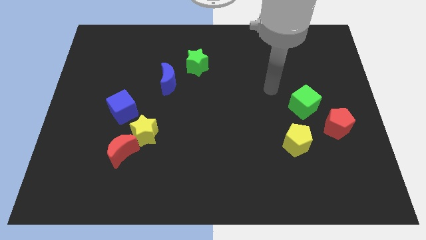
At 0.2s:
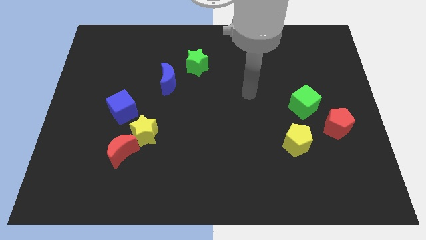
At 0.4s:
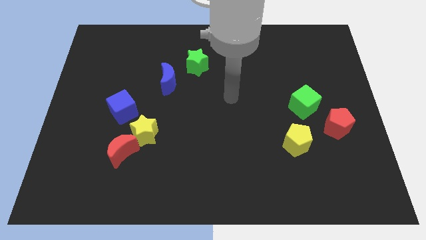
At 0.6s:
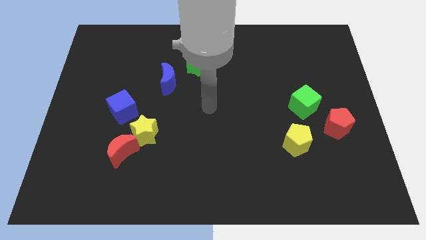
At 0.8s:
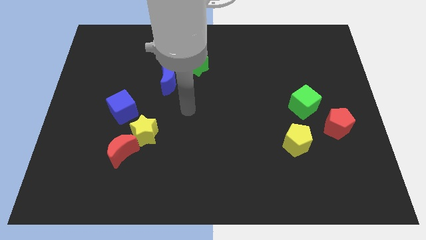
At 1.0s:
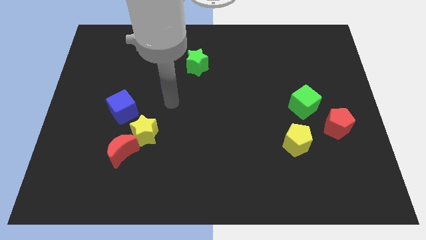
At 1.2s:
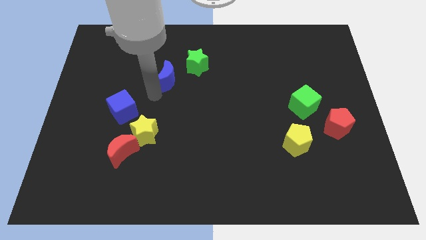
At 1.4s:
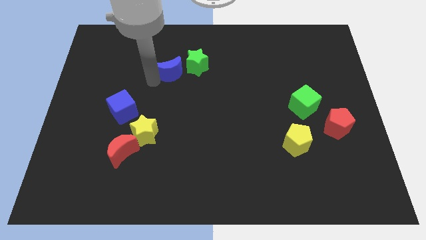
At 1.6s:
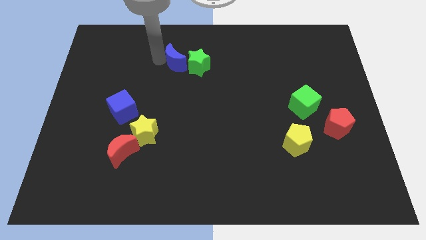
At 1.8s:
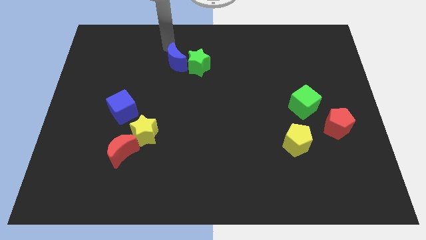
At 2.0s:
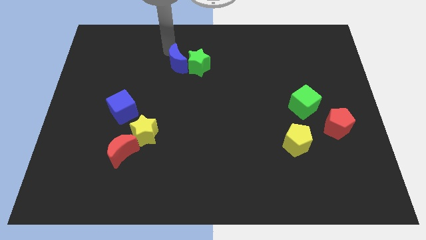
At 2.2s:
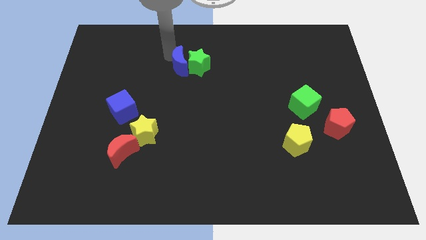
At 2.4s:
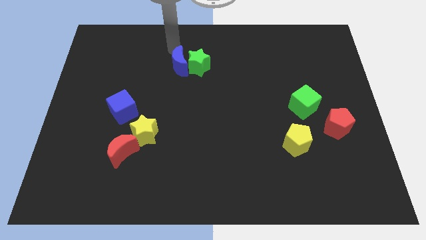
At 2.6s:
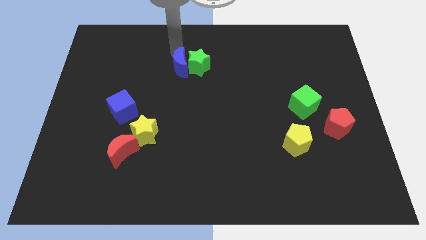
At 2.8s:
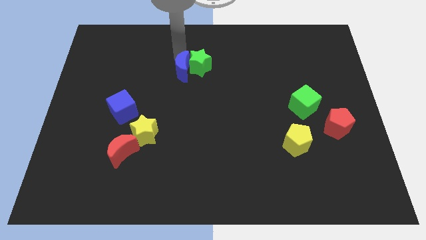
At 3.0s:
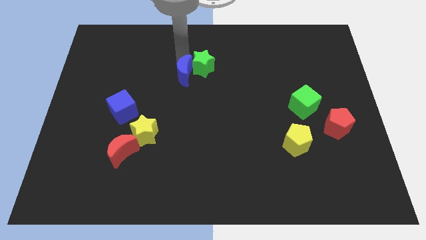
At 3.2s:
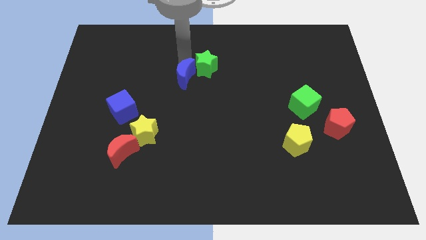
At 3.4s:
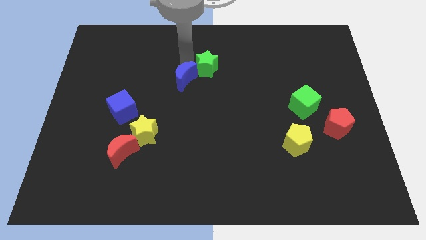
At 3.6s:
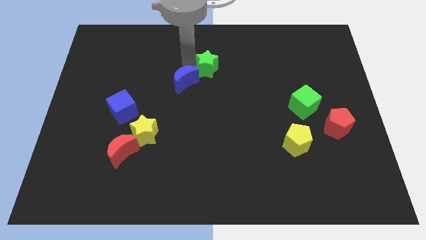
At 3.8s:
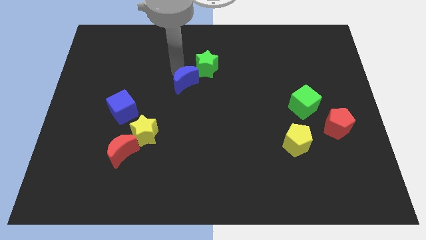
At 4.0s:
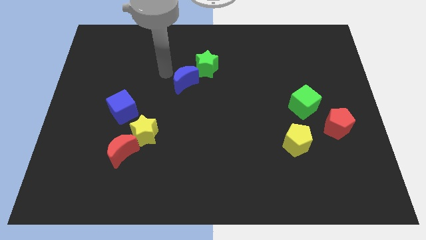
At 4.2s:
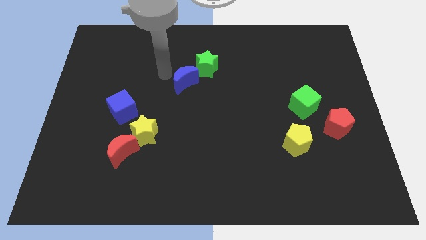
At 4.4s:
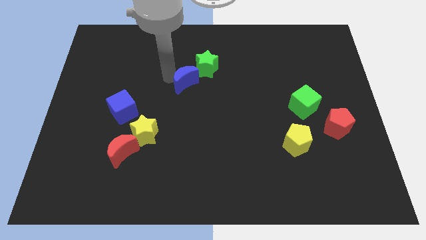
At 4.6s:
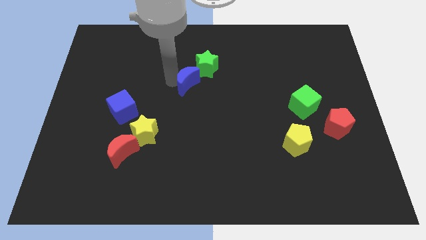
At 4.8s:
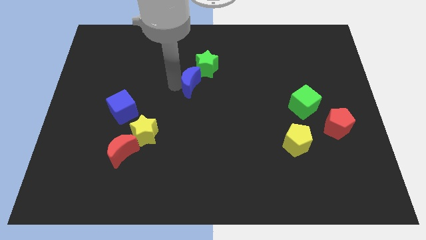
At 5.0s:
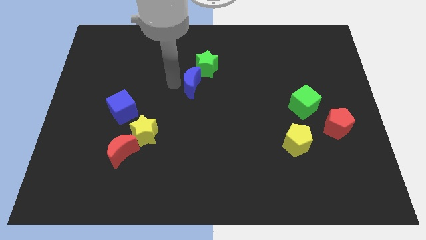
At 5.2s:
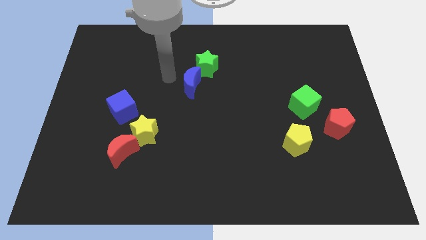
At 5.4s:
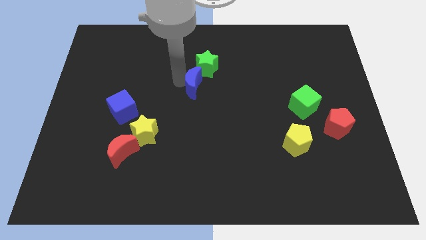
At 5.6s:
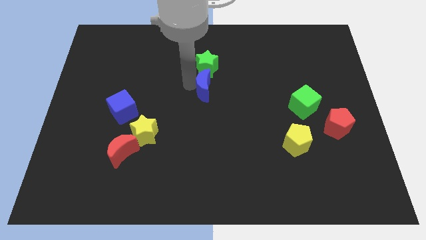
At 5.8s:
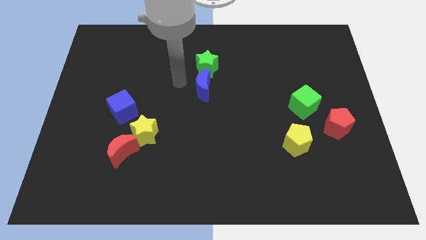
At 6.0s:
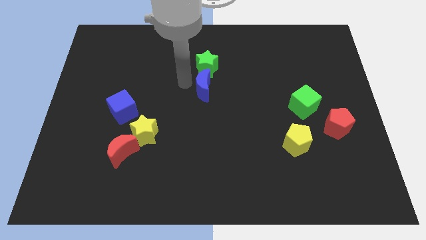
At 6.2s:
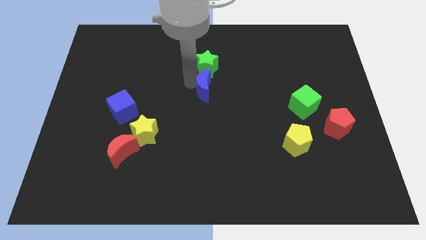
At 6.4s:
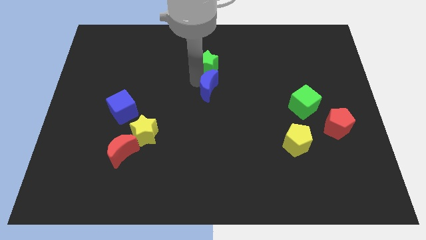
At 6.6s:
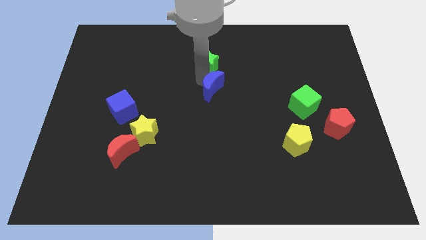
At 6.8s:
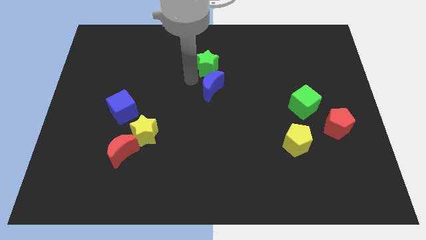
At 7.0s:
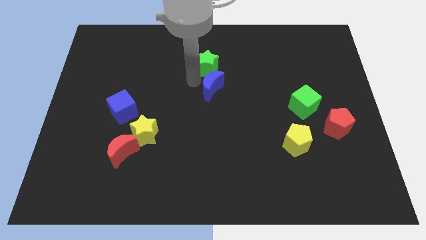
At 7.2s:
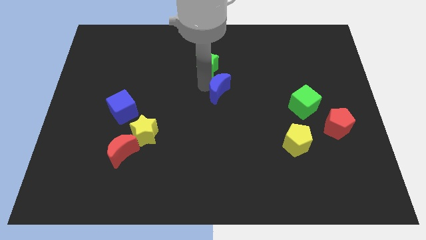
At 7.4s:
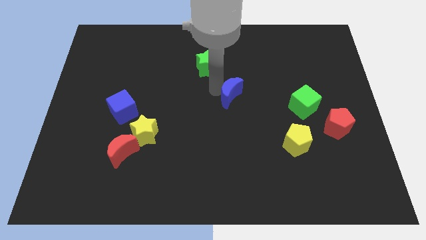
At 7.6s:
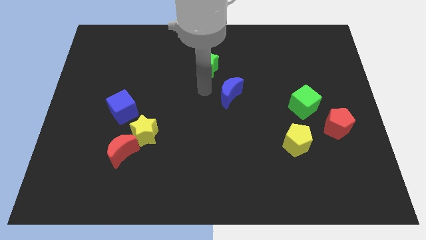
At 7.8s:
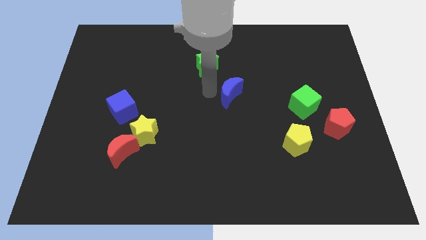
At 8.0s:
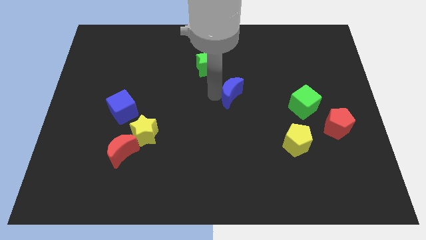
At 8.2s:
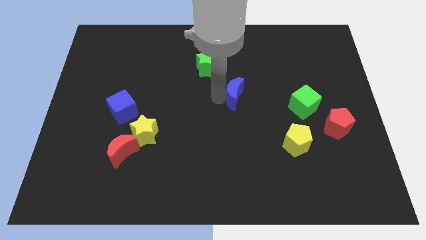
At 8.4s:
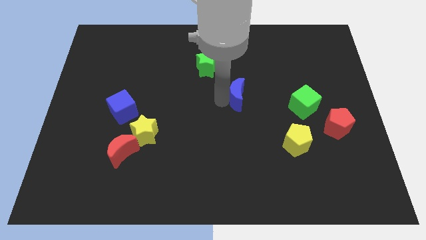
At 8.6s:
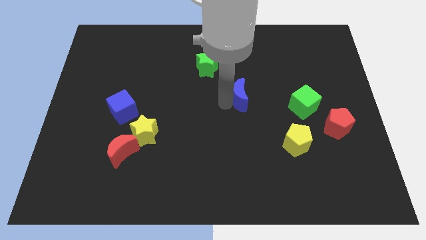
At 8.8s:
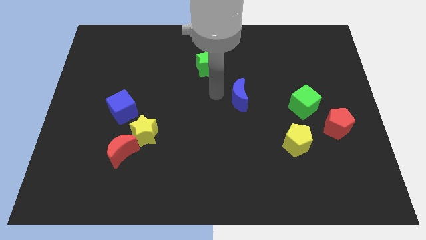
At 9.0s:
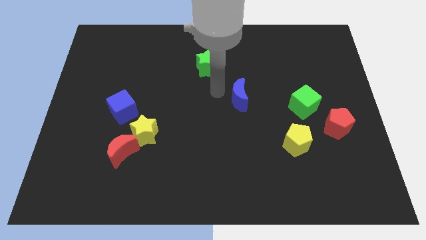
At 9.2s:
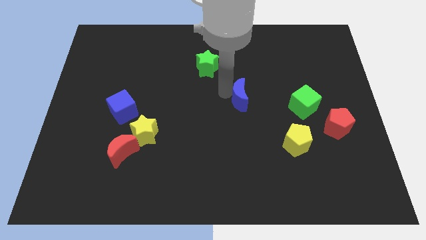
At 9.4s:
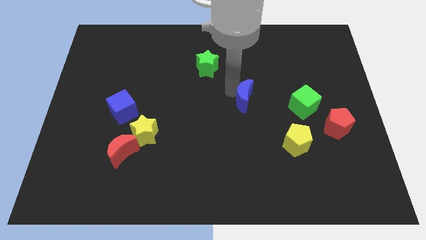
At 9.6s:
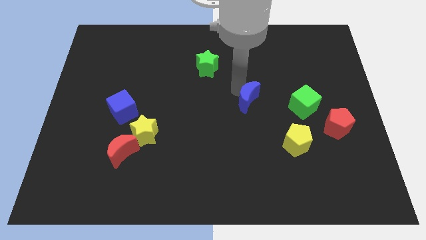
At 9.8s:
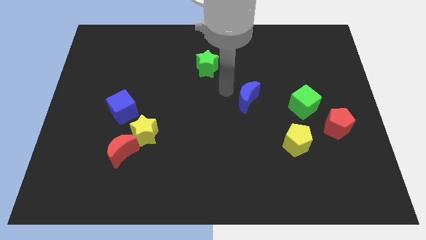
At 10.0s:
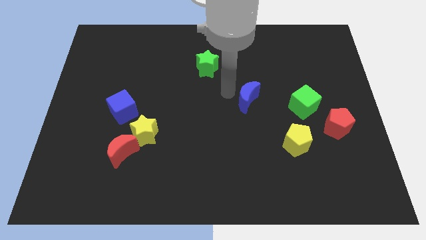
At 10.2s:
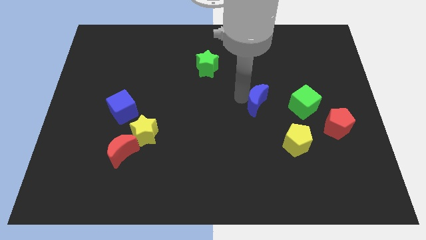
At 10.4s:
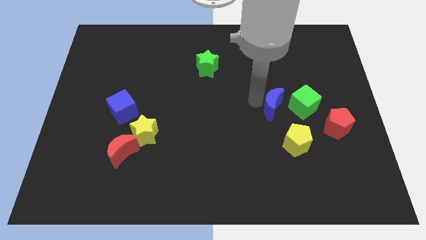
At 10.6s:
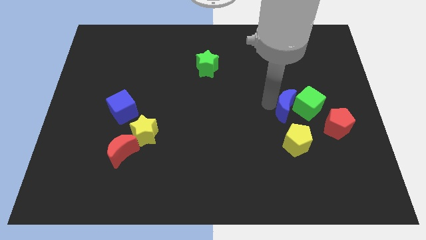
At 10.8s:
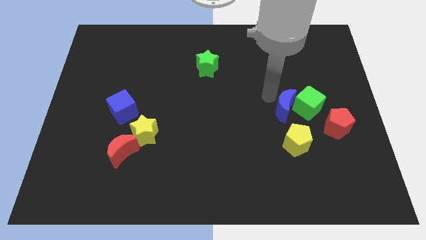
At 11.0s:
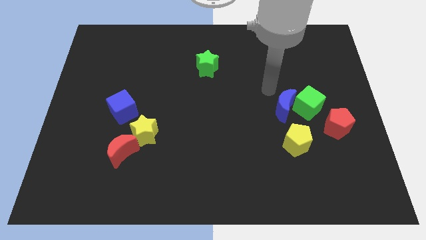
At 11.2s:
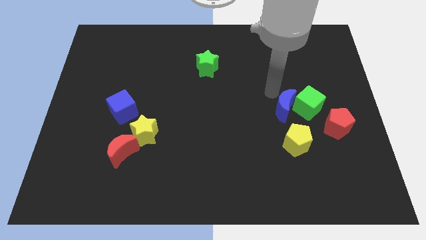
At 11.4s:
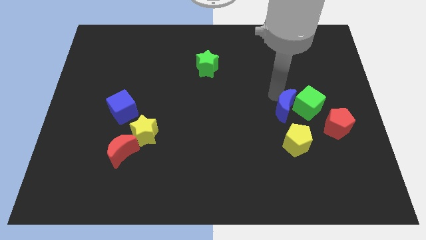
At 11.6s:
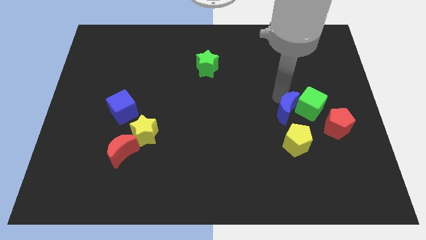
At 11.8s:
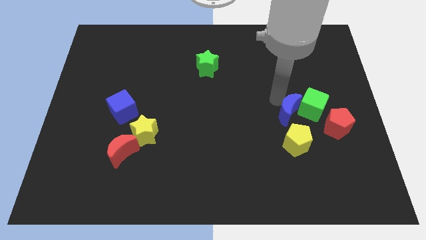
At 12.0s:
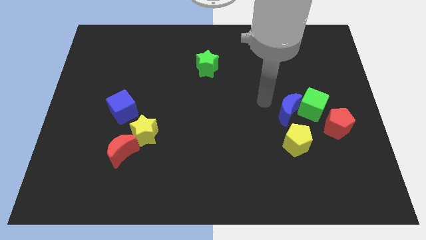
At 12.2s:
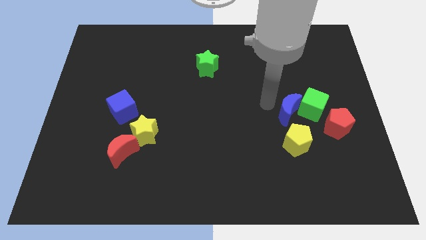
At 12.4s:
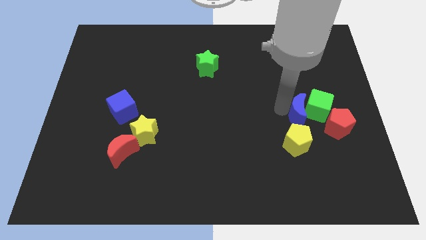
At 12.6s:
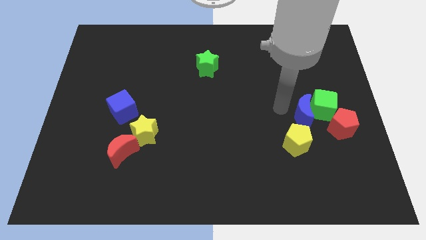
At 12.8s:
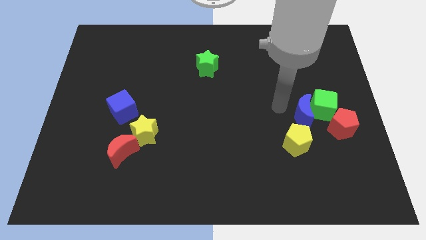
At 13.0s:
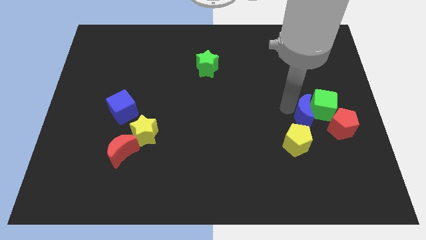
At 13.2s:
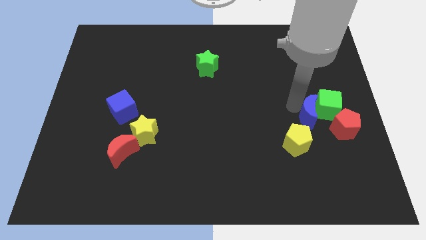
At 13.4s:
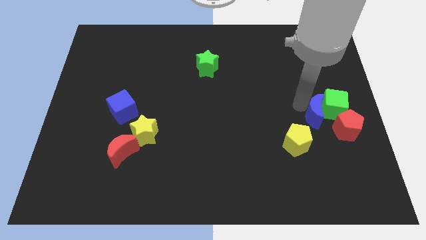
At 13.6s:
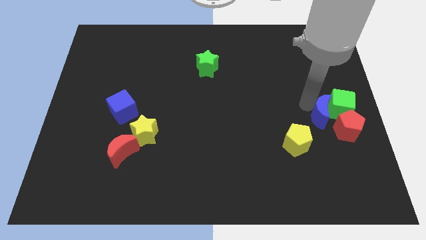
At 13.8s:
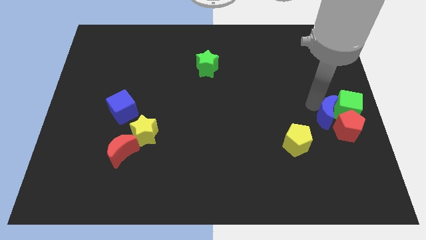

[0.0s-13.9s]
move the blue moon towards the red pentagon
